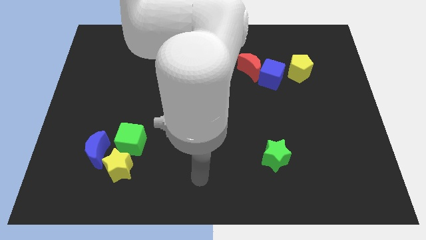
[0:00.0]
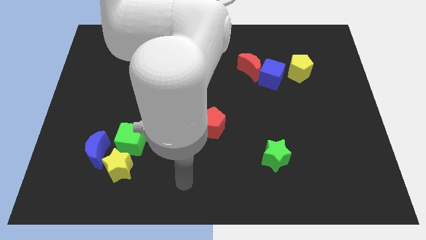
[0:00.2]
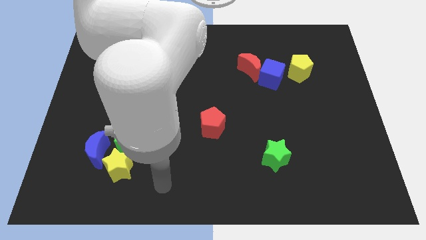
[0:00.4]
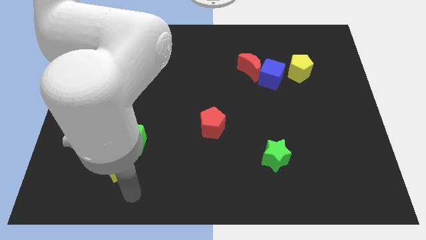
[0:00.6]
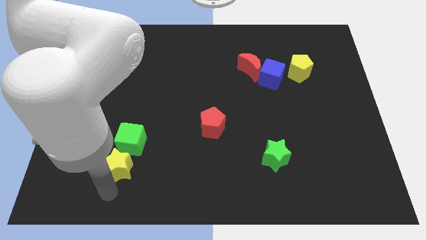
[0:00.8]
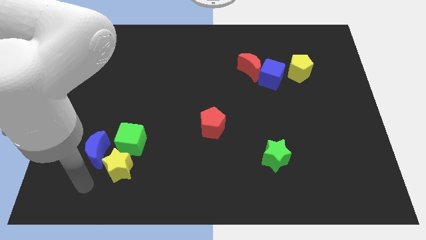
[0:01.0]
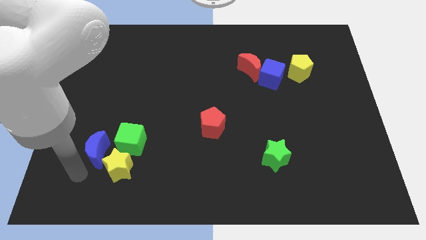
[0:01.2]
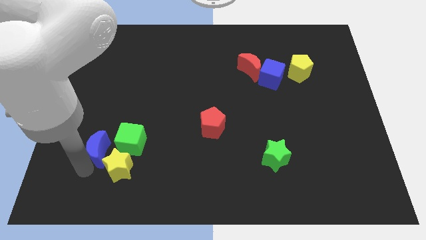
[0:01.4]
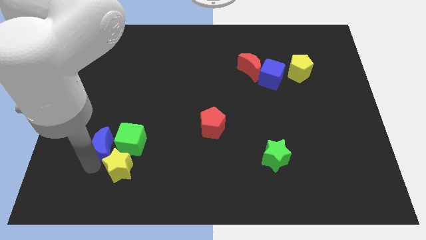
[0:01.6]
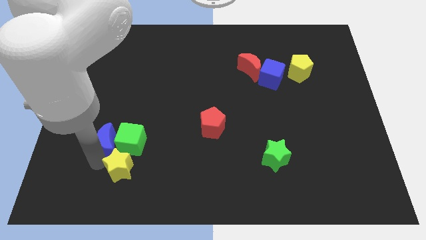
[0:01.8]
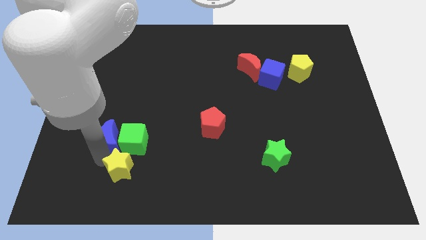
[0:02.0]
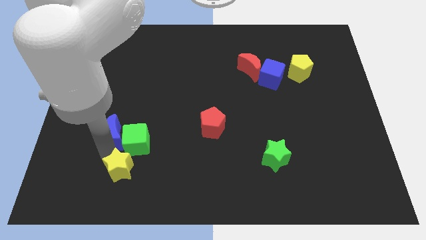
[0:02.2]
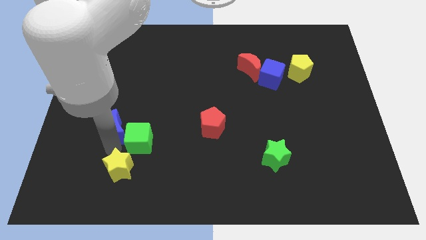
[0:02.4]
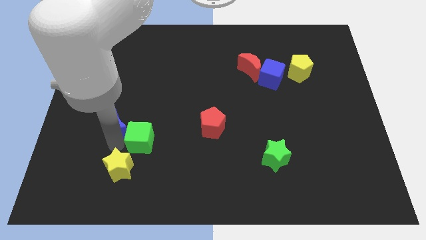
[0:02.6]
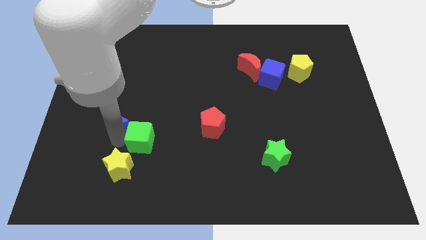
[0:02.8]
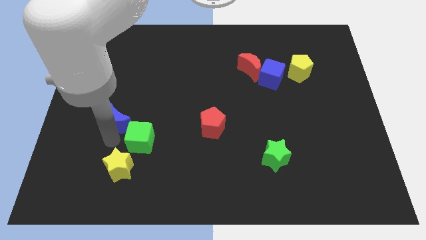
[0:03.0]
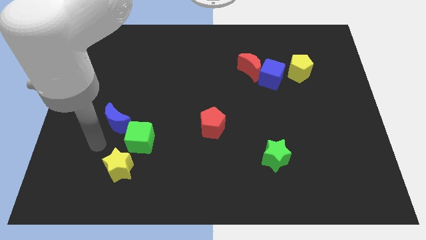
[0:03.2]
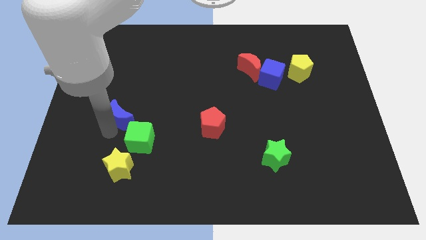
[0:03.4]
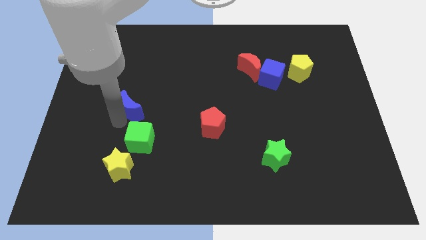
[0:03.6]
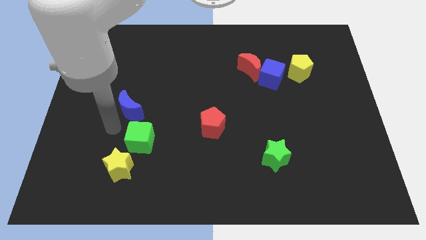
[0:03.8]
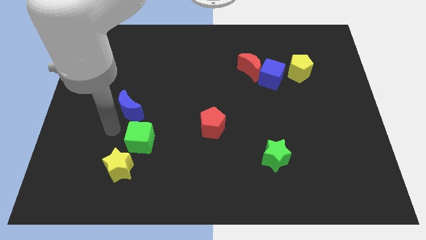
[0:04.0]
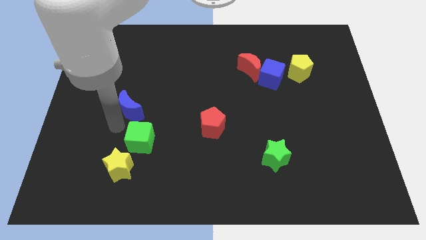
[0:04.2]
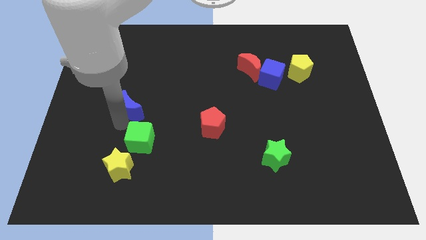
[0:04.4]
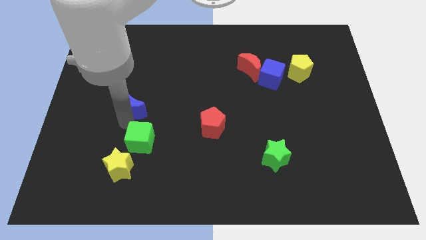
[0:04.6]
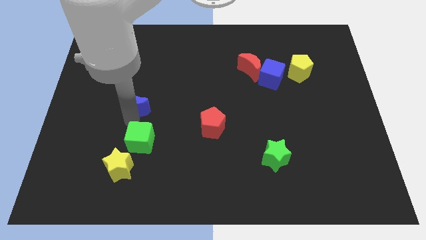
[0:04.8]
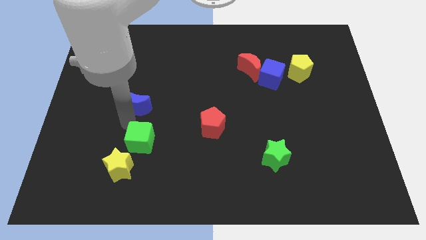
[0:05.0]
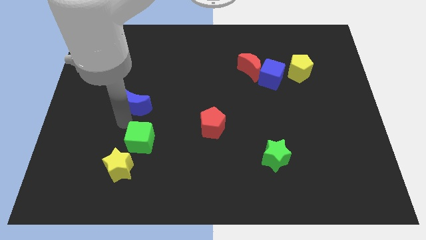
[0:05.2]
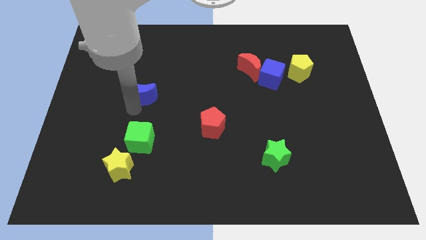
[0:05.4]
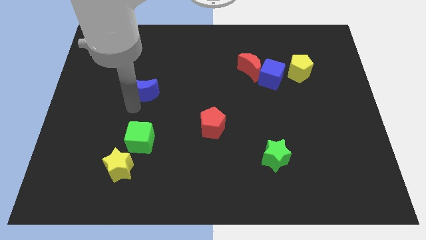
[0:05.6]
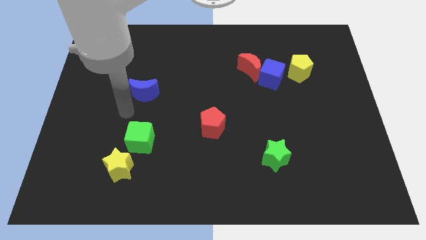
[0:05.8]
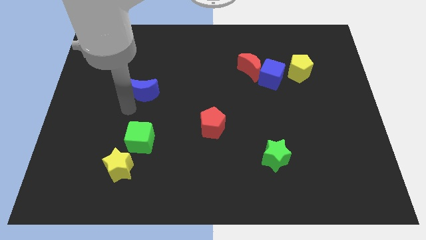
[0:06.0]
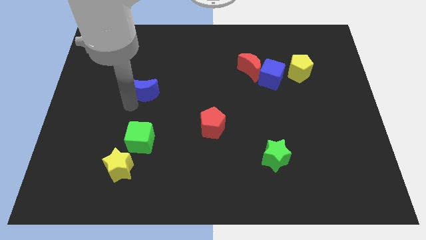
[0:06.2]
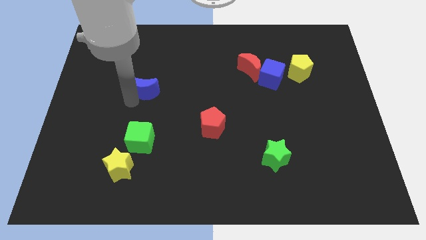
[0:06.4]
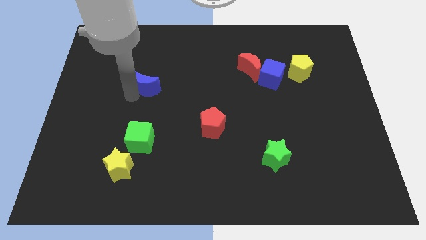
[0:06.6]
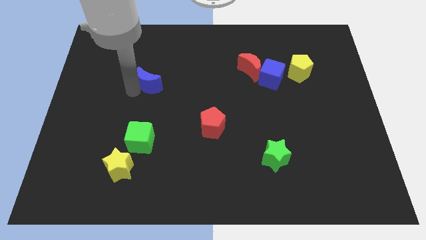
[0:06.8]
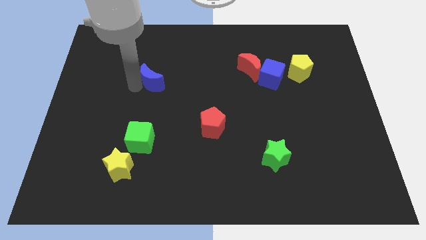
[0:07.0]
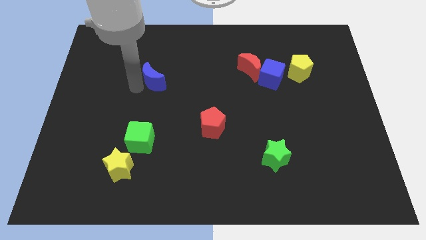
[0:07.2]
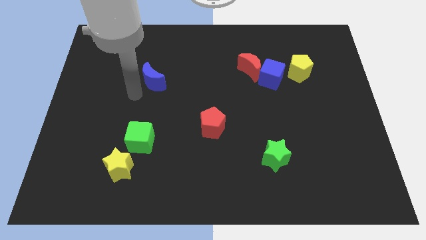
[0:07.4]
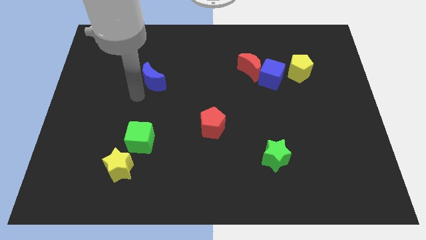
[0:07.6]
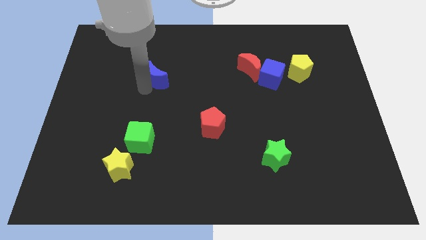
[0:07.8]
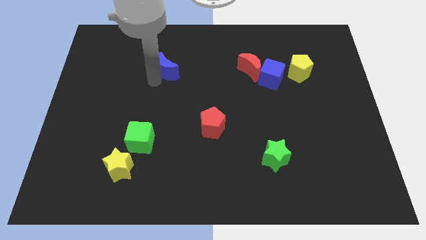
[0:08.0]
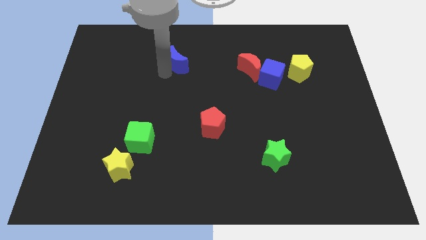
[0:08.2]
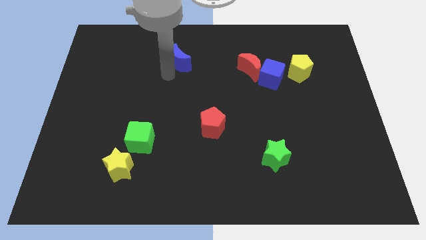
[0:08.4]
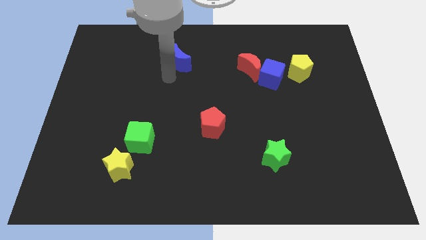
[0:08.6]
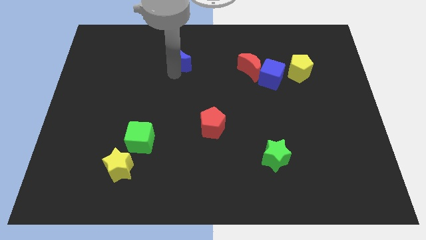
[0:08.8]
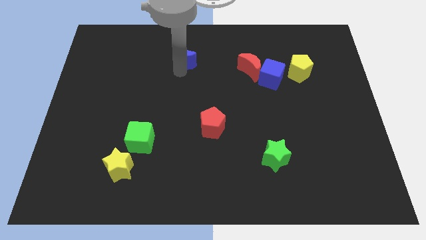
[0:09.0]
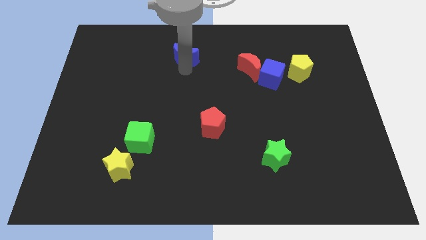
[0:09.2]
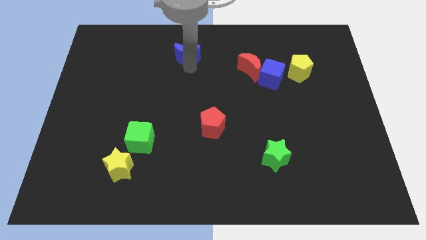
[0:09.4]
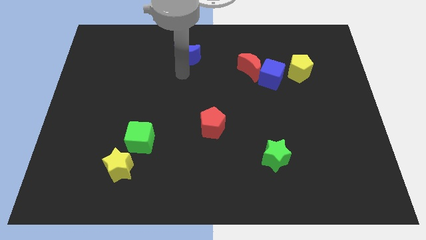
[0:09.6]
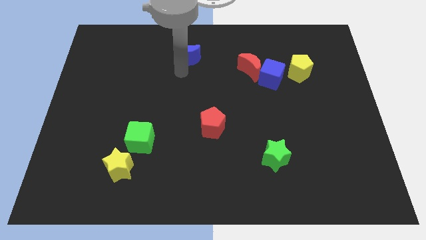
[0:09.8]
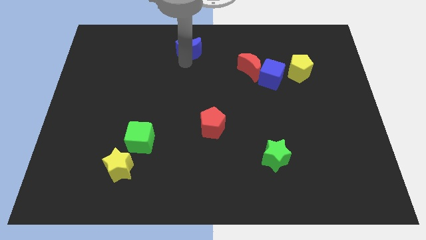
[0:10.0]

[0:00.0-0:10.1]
push the blue moon to the top

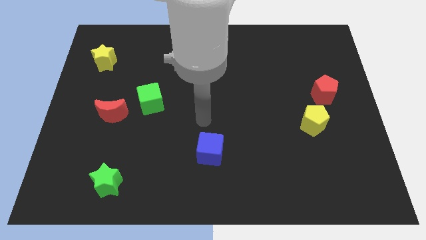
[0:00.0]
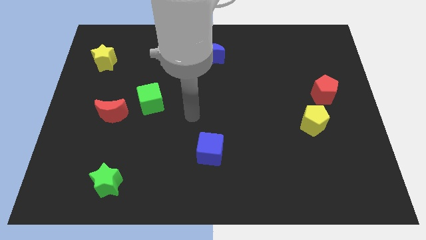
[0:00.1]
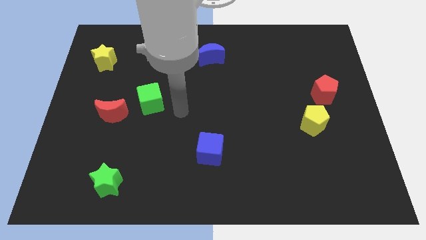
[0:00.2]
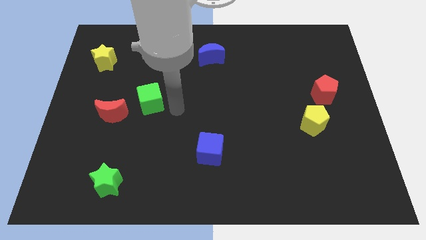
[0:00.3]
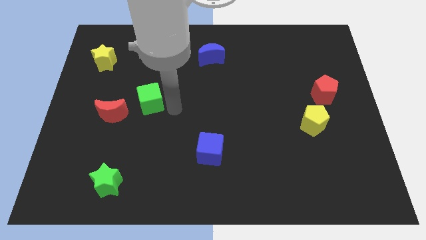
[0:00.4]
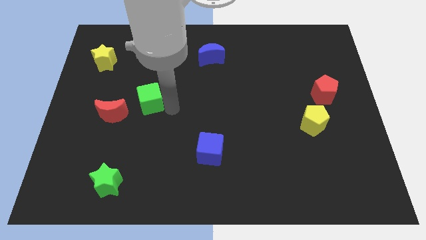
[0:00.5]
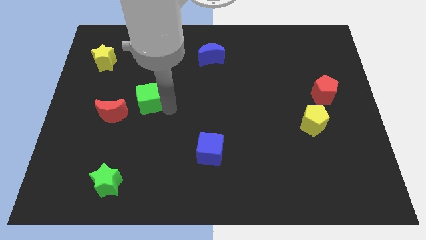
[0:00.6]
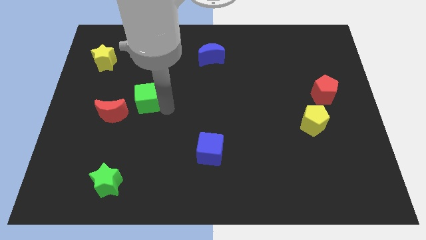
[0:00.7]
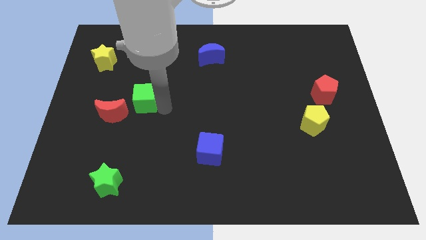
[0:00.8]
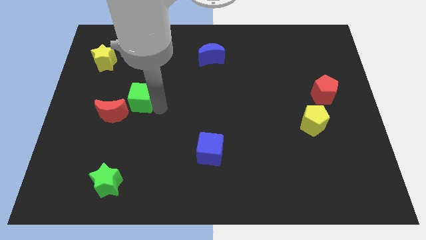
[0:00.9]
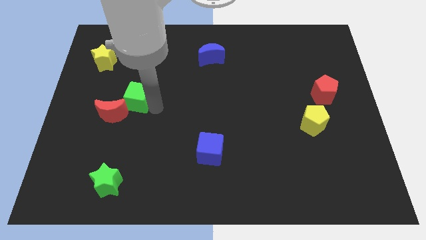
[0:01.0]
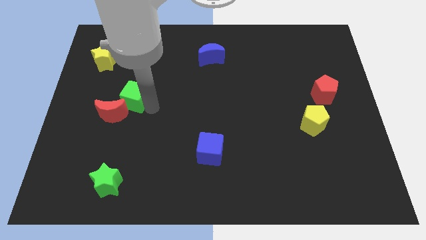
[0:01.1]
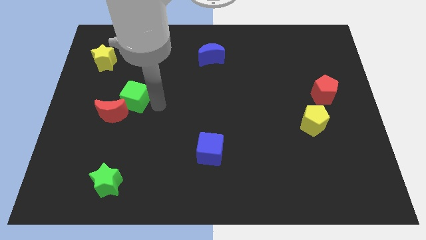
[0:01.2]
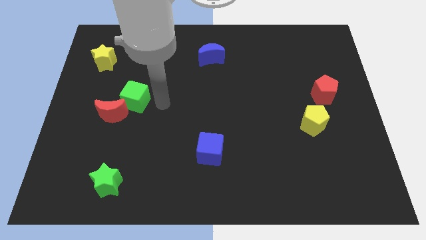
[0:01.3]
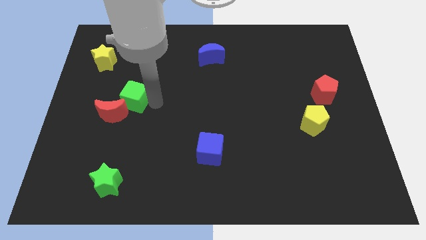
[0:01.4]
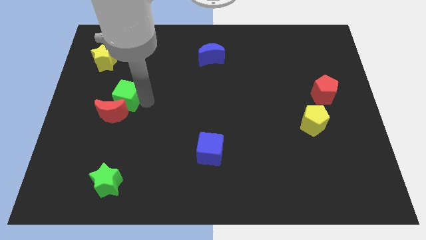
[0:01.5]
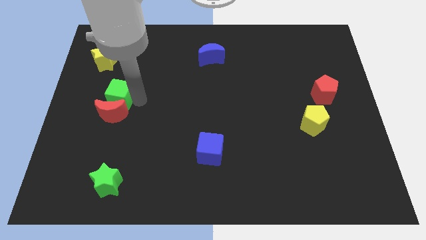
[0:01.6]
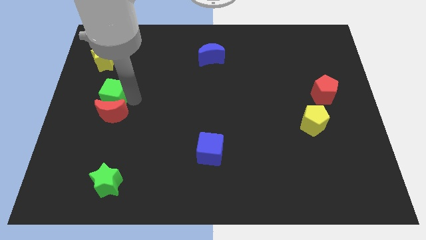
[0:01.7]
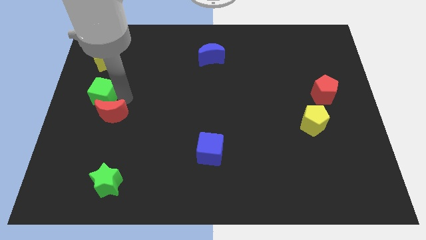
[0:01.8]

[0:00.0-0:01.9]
move the green cube to the center left

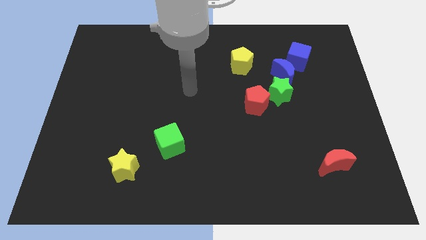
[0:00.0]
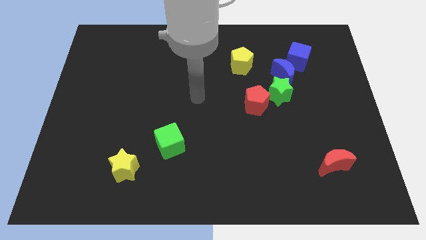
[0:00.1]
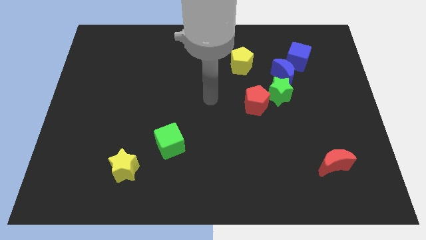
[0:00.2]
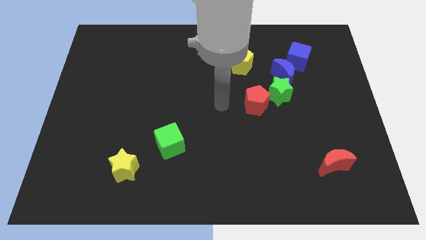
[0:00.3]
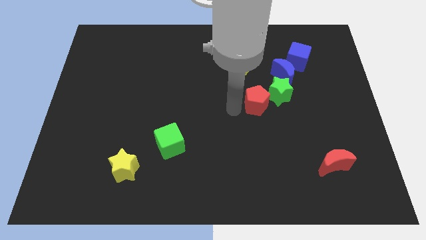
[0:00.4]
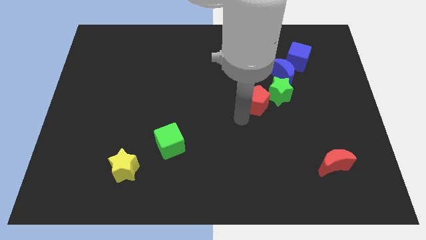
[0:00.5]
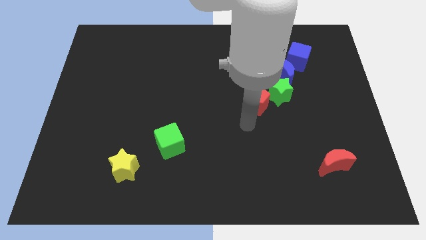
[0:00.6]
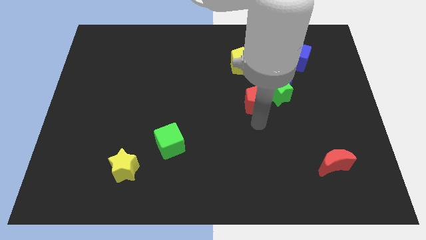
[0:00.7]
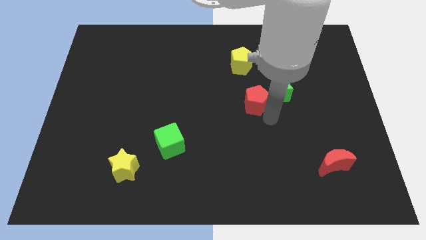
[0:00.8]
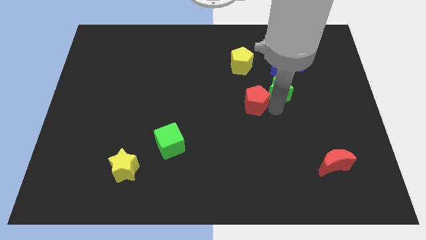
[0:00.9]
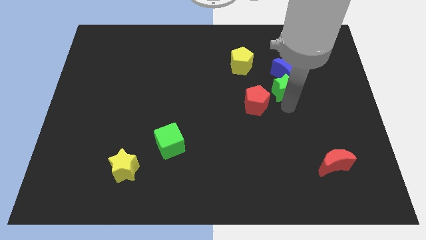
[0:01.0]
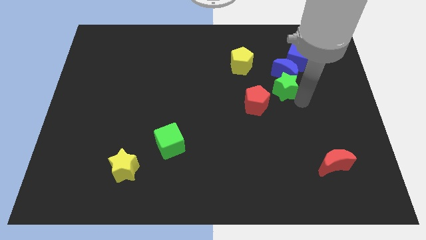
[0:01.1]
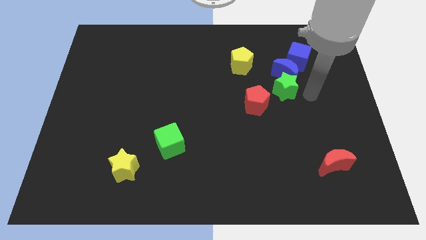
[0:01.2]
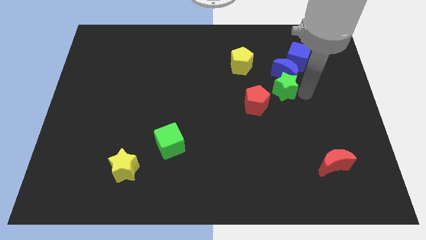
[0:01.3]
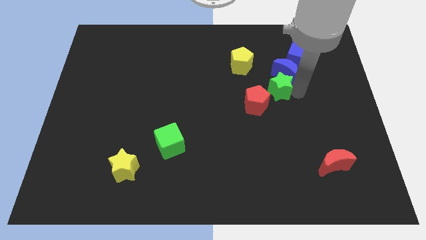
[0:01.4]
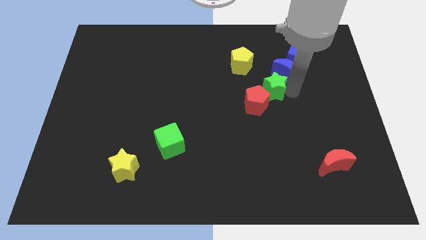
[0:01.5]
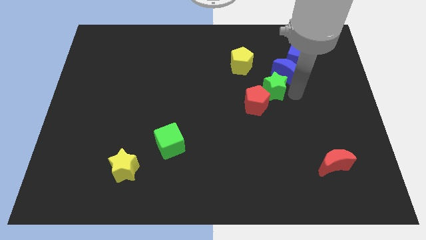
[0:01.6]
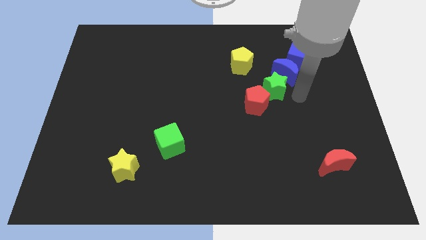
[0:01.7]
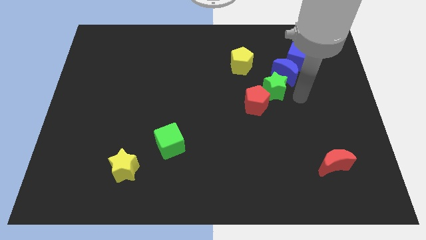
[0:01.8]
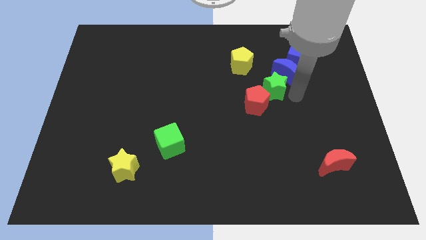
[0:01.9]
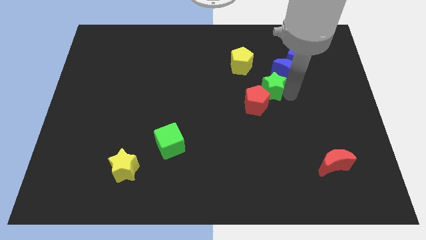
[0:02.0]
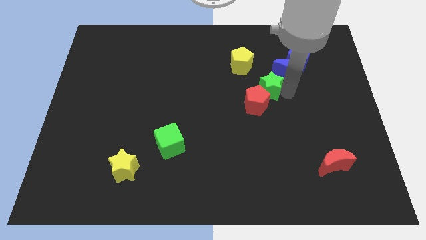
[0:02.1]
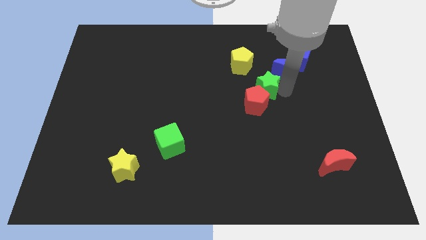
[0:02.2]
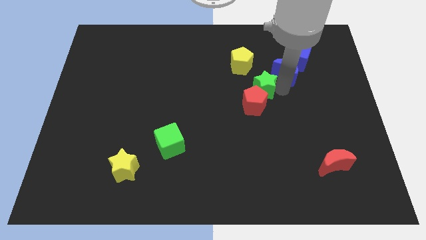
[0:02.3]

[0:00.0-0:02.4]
slide the green star to the middle of the board
